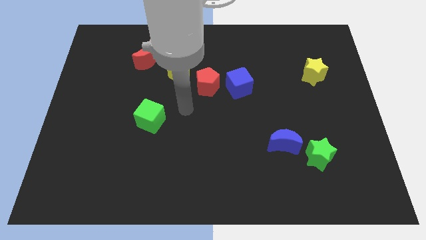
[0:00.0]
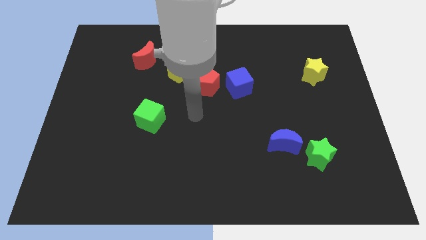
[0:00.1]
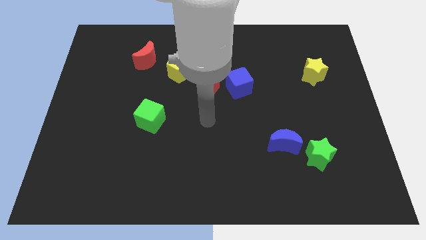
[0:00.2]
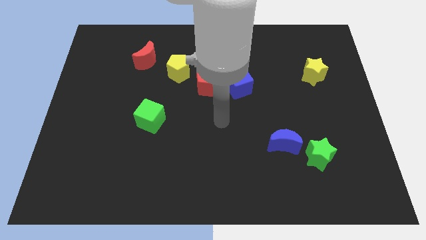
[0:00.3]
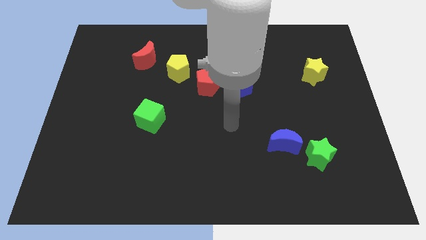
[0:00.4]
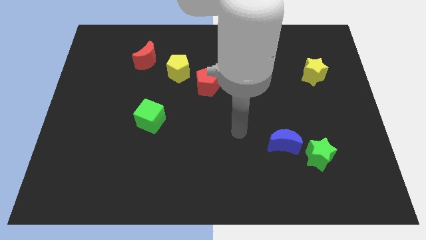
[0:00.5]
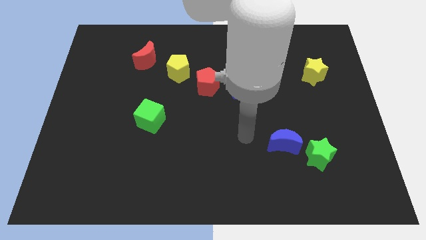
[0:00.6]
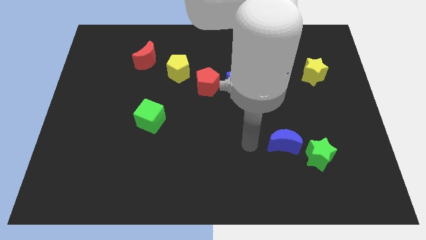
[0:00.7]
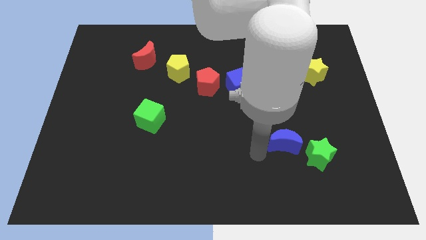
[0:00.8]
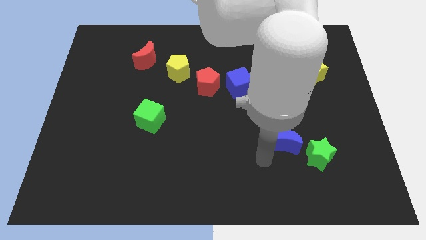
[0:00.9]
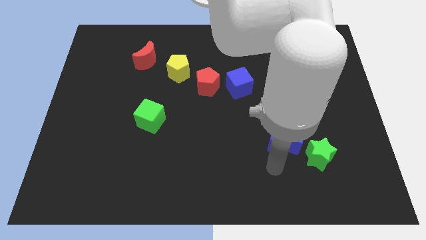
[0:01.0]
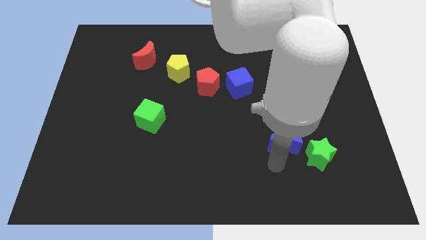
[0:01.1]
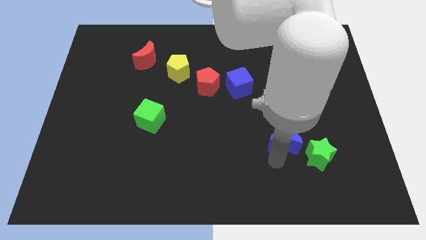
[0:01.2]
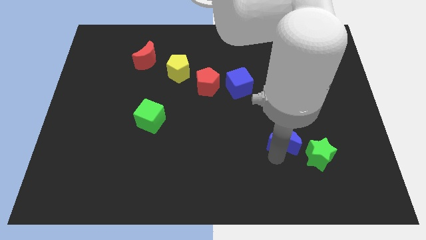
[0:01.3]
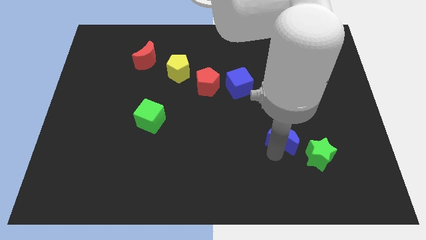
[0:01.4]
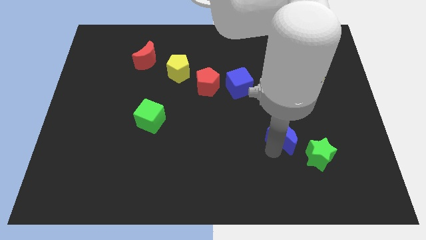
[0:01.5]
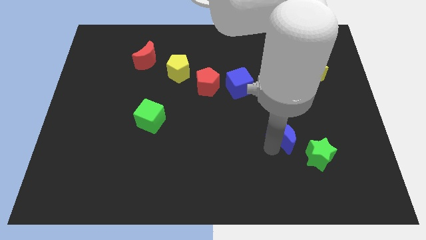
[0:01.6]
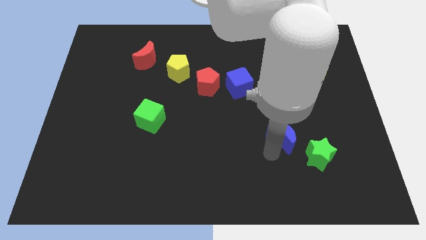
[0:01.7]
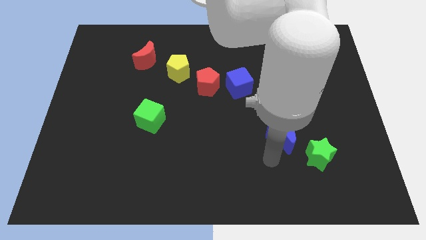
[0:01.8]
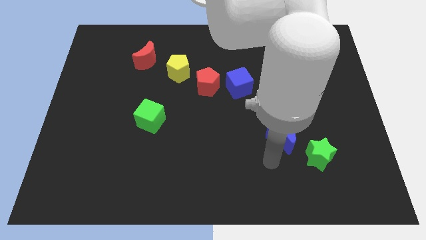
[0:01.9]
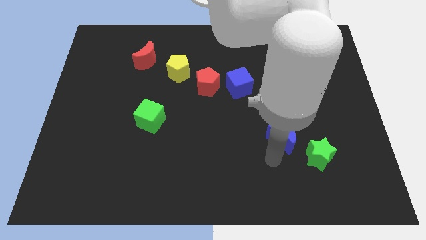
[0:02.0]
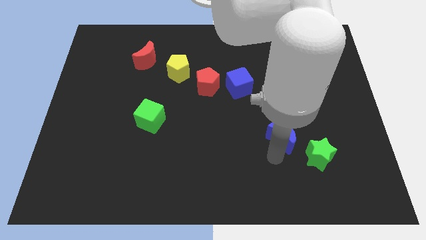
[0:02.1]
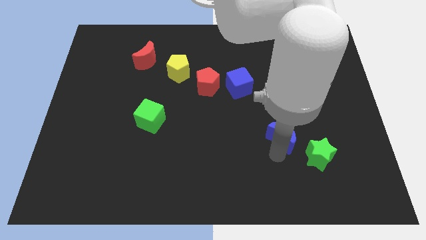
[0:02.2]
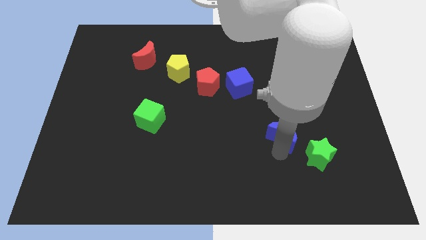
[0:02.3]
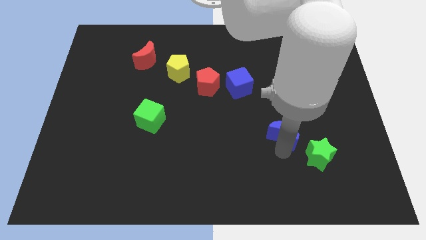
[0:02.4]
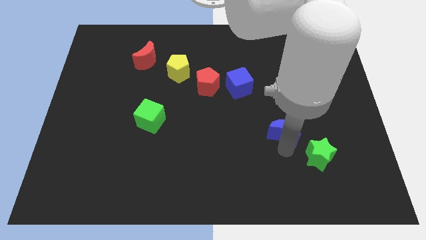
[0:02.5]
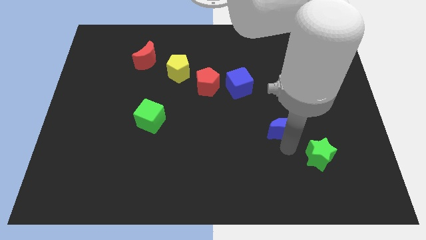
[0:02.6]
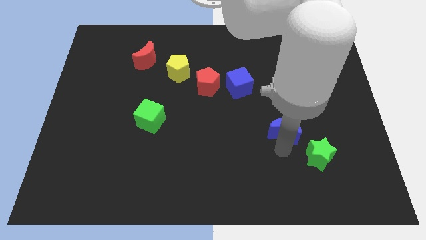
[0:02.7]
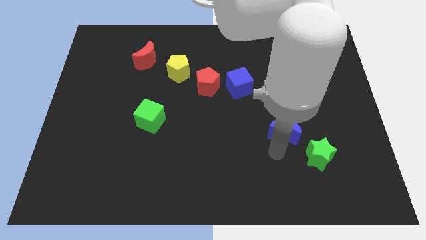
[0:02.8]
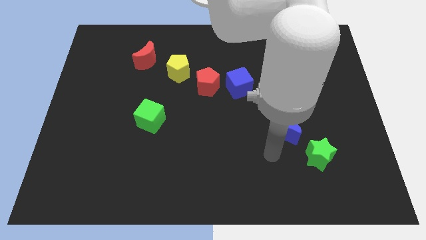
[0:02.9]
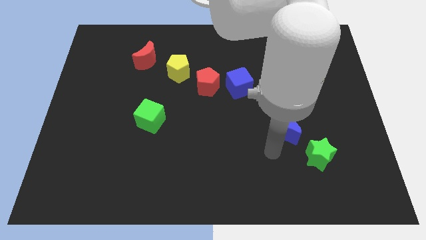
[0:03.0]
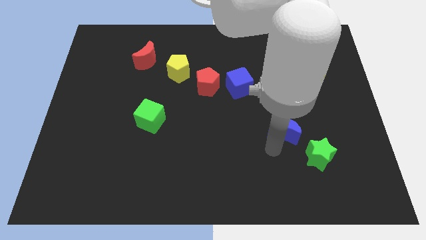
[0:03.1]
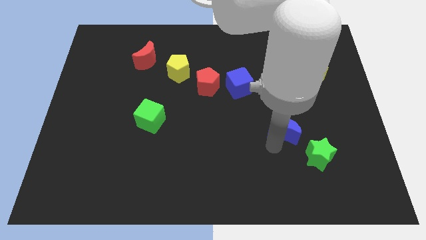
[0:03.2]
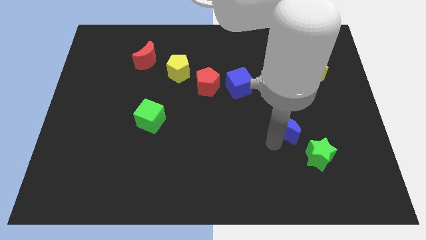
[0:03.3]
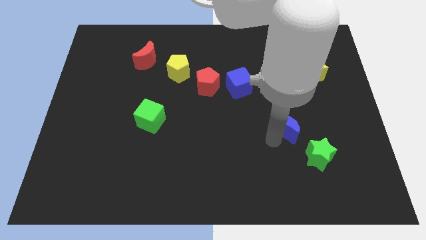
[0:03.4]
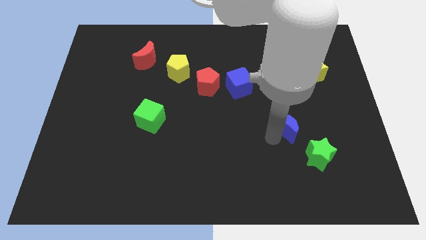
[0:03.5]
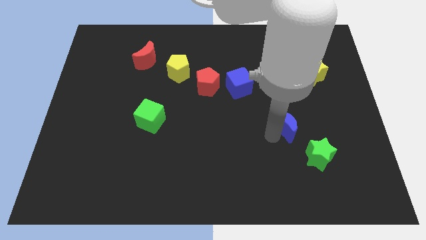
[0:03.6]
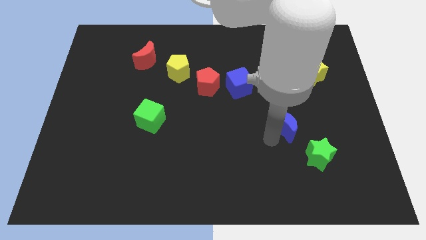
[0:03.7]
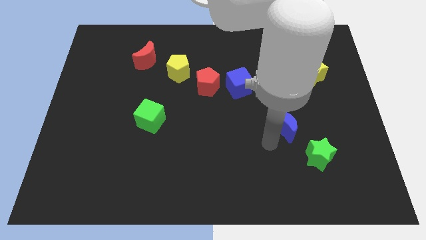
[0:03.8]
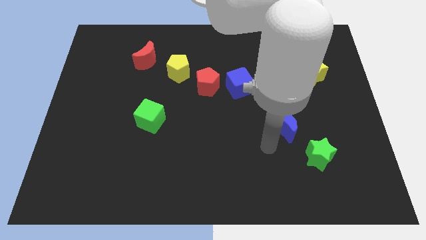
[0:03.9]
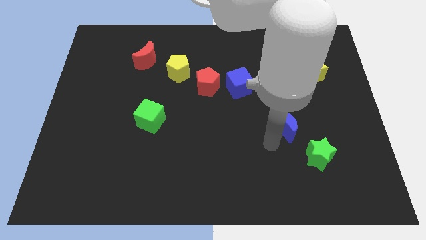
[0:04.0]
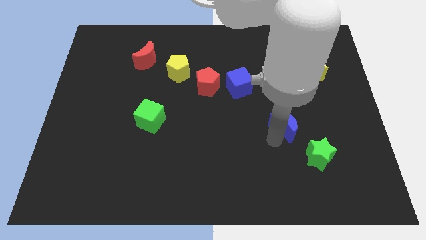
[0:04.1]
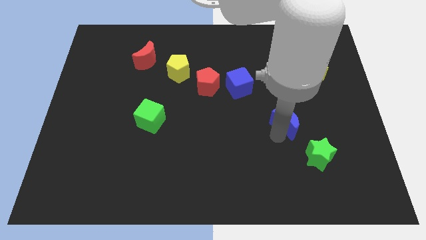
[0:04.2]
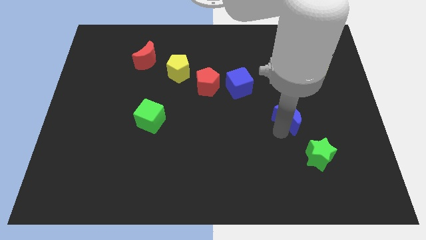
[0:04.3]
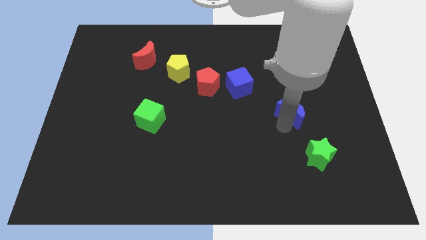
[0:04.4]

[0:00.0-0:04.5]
slide the blue moon a little bit upwards and right

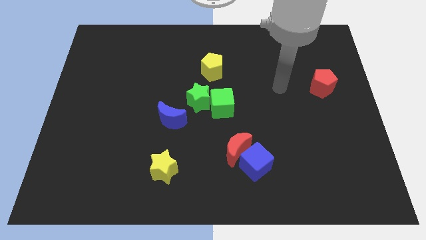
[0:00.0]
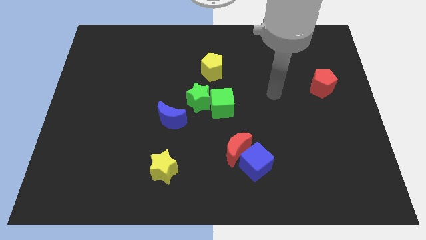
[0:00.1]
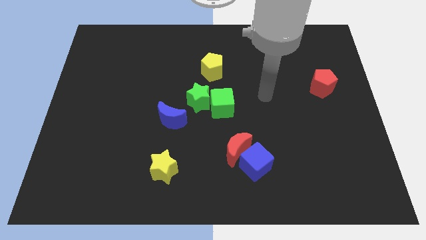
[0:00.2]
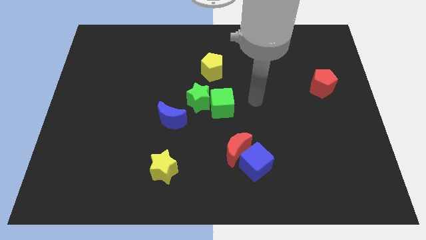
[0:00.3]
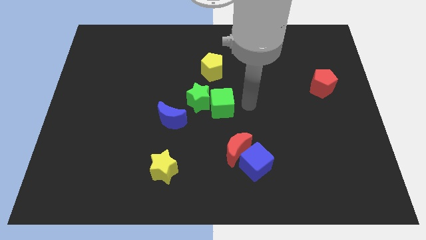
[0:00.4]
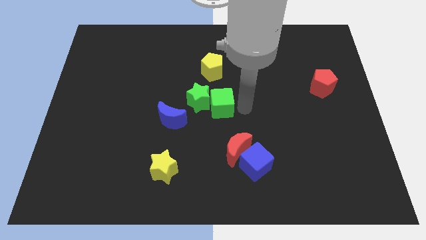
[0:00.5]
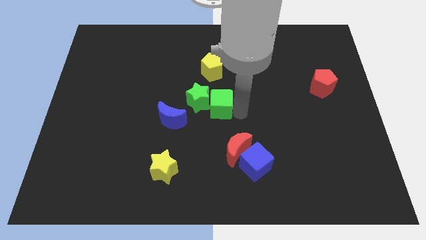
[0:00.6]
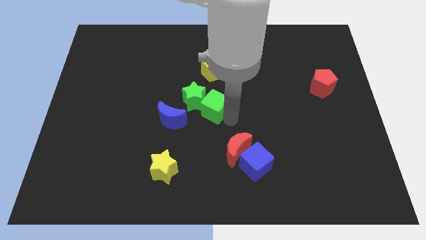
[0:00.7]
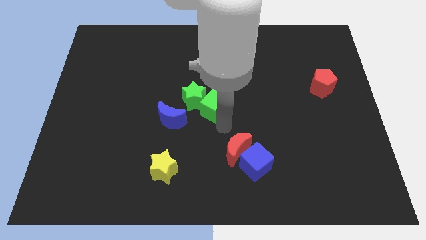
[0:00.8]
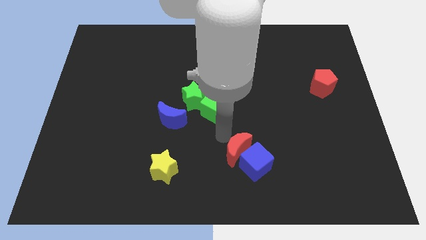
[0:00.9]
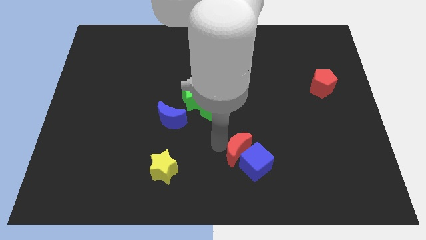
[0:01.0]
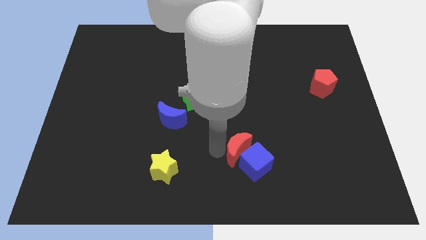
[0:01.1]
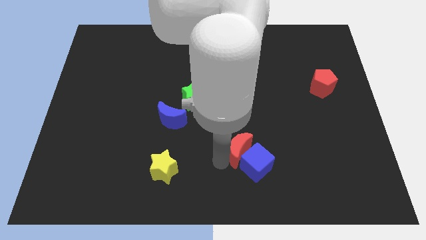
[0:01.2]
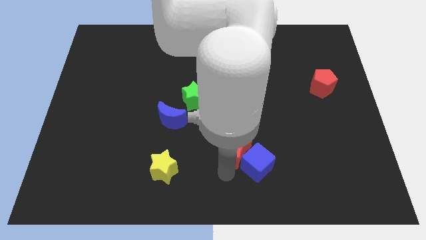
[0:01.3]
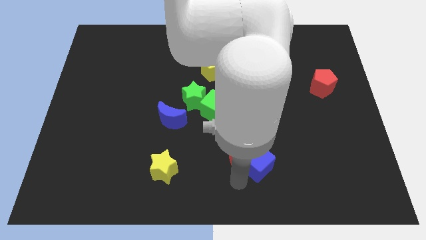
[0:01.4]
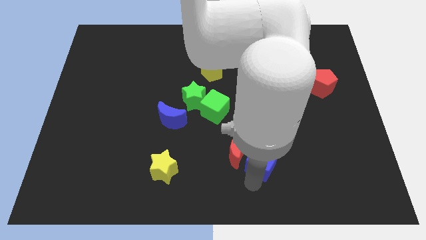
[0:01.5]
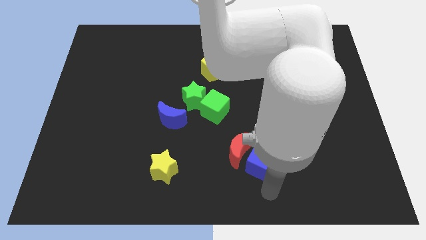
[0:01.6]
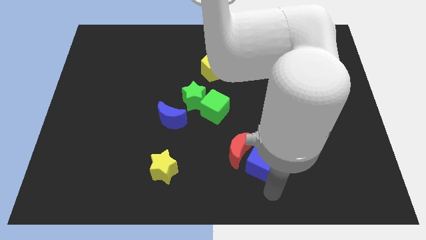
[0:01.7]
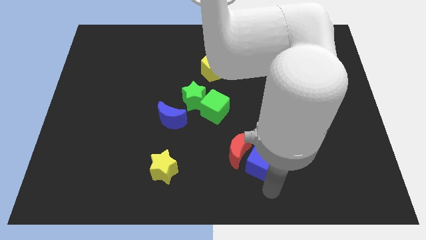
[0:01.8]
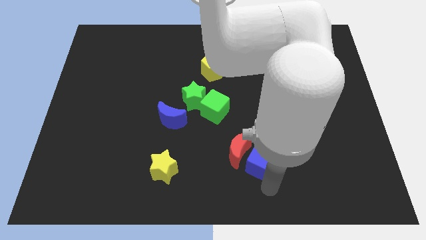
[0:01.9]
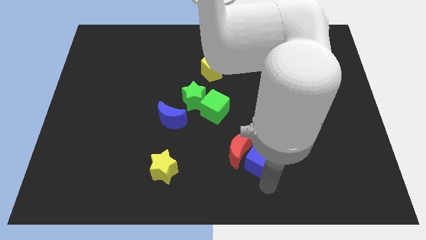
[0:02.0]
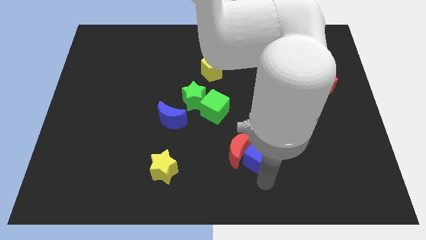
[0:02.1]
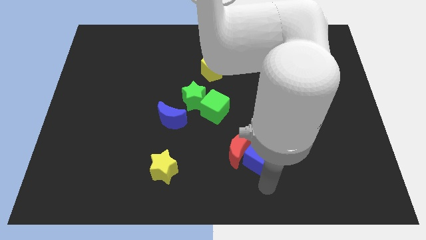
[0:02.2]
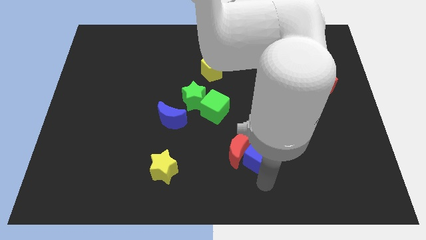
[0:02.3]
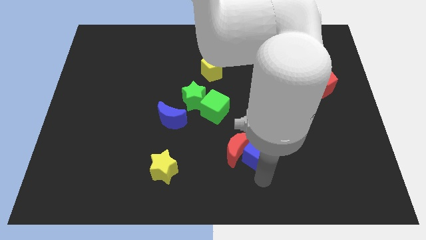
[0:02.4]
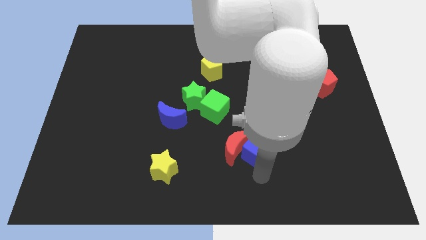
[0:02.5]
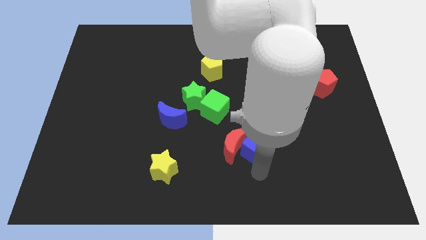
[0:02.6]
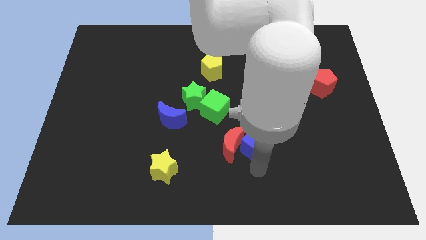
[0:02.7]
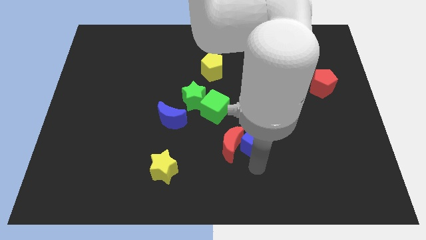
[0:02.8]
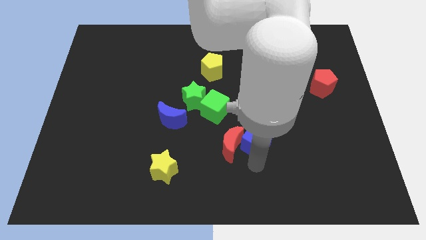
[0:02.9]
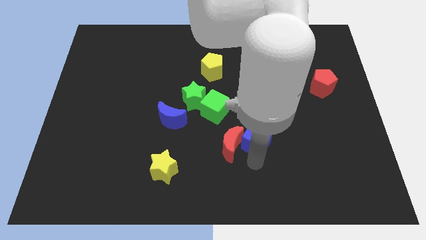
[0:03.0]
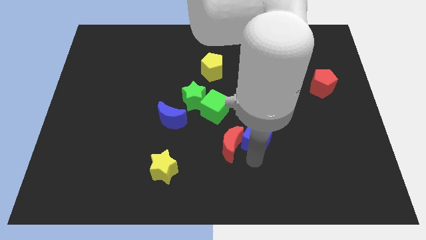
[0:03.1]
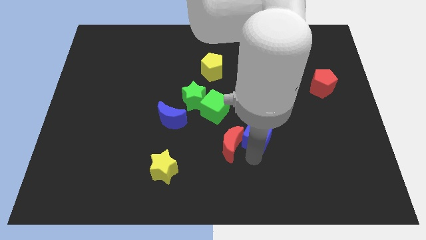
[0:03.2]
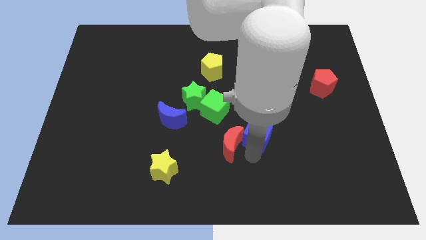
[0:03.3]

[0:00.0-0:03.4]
slide the blue cube upwards a little bit

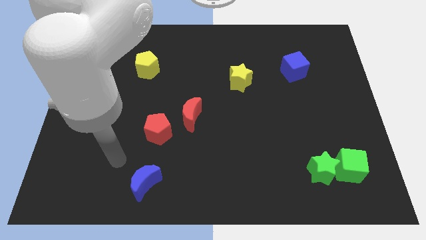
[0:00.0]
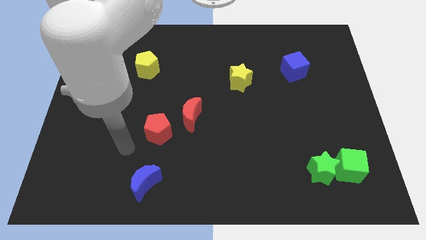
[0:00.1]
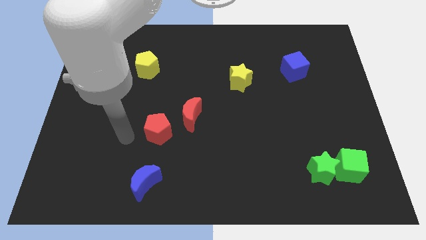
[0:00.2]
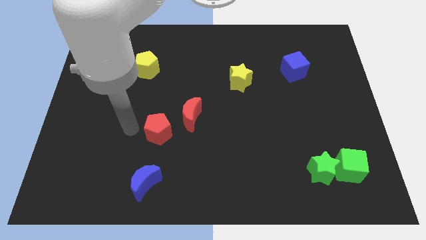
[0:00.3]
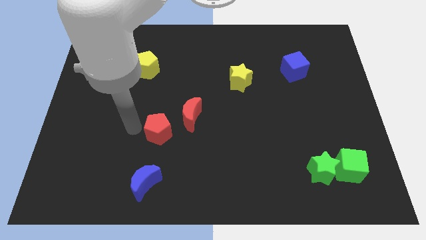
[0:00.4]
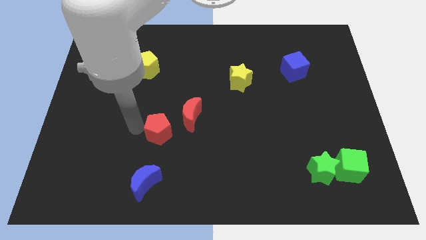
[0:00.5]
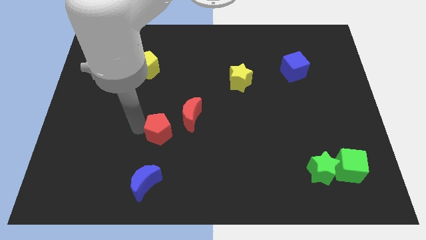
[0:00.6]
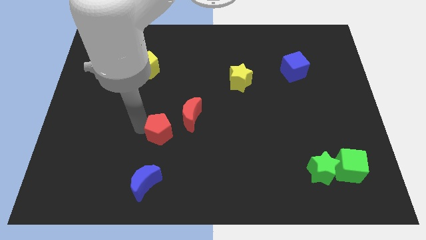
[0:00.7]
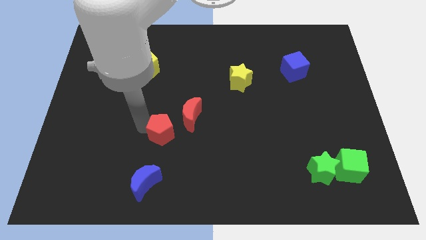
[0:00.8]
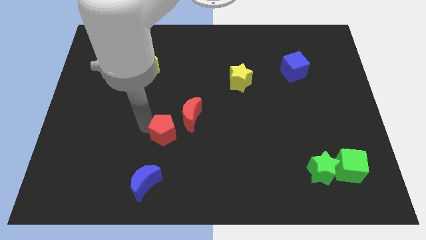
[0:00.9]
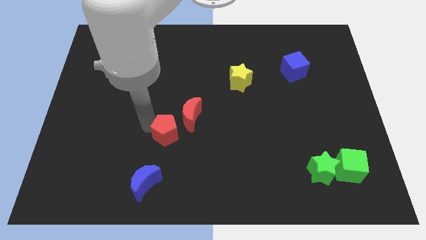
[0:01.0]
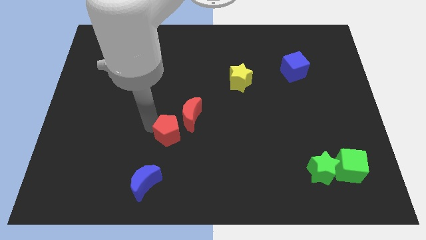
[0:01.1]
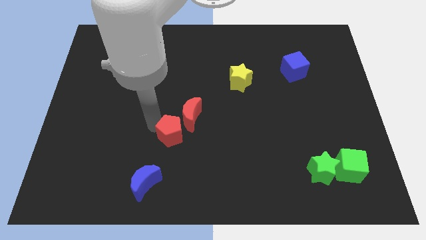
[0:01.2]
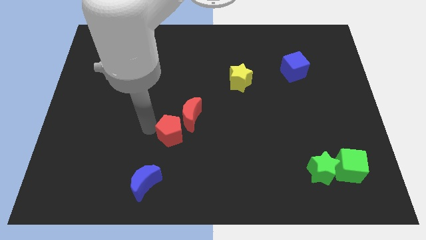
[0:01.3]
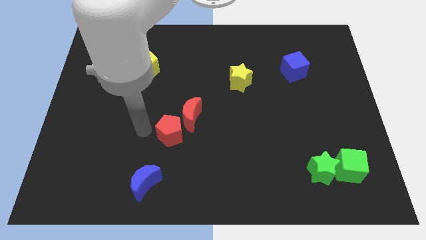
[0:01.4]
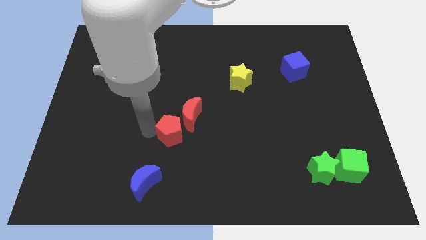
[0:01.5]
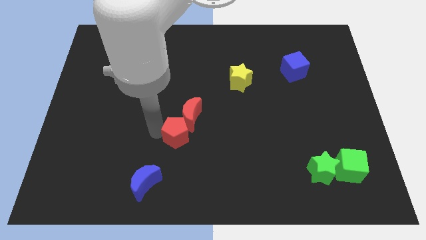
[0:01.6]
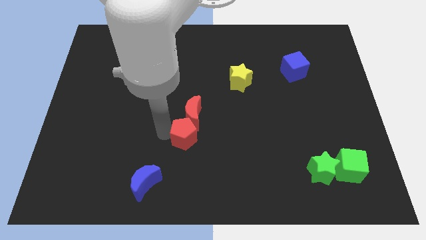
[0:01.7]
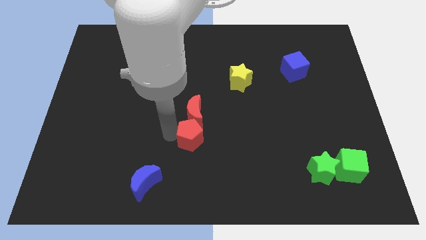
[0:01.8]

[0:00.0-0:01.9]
slightly push the red pentagon right
